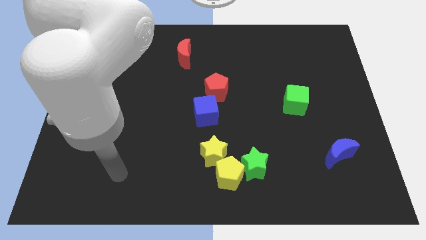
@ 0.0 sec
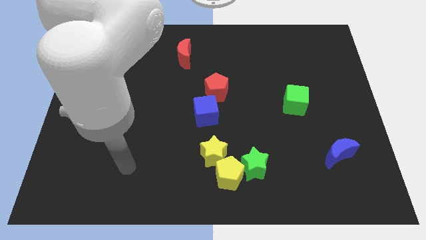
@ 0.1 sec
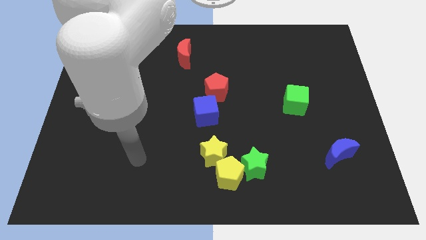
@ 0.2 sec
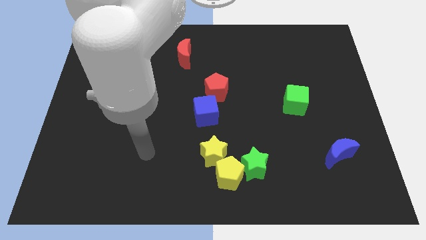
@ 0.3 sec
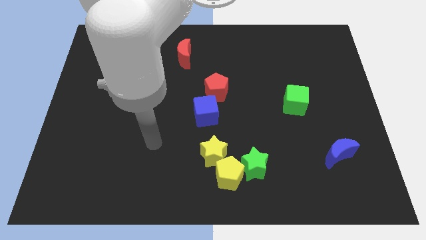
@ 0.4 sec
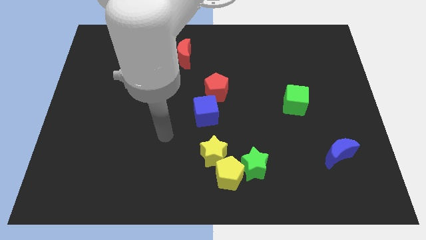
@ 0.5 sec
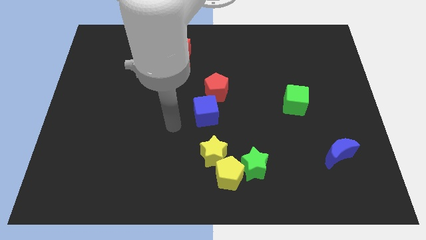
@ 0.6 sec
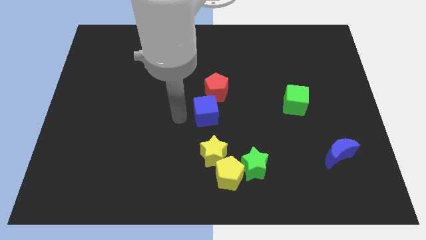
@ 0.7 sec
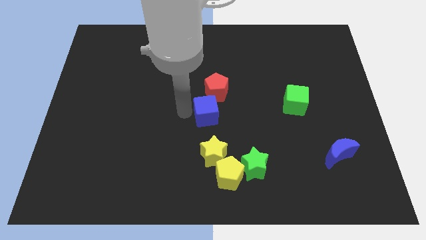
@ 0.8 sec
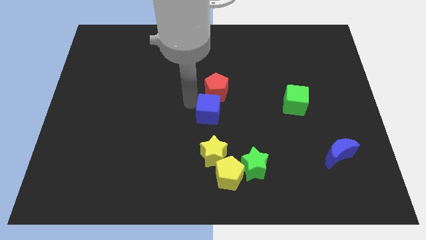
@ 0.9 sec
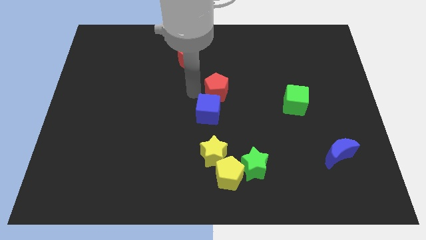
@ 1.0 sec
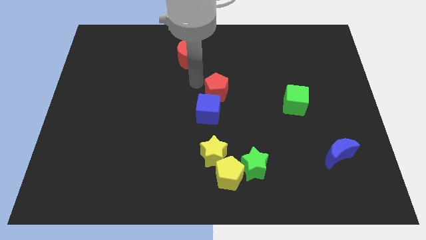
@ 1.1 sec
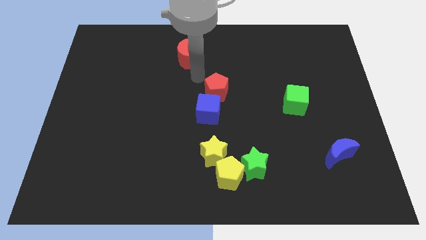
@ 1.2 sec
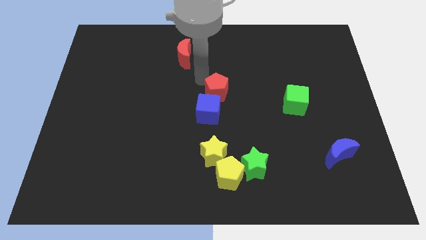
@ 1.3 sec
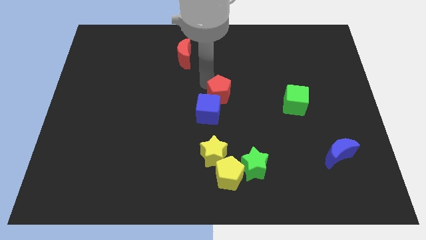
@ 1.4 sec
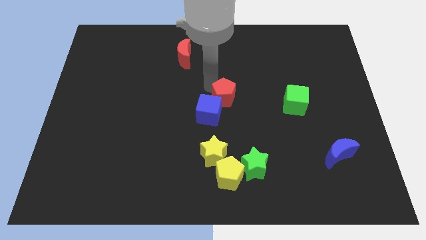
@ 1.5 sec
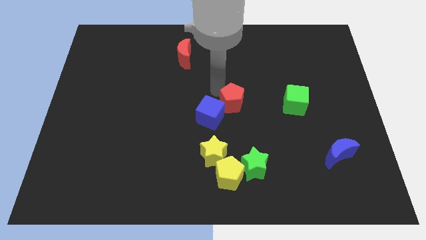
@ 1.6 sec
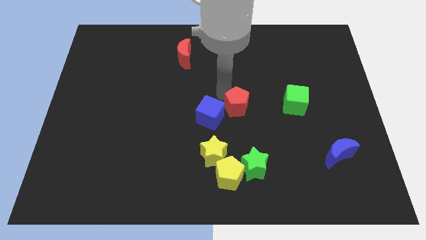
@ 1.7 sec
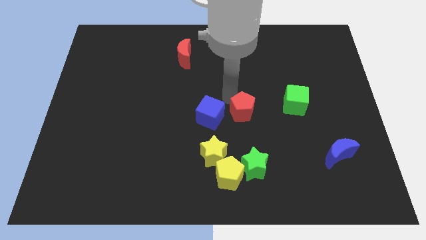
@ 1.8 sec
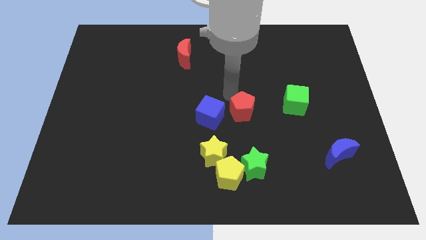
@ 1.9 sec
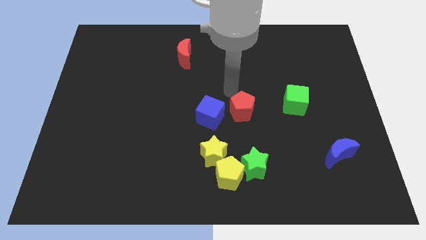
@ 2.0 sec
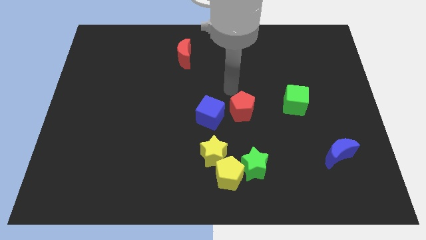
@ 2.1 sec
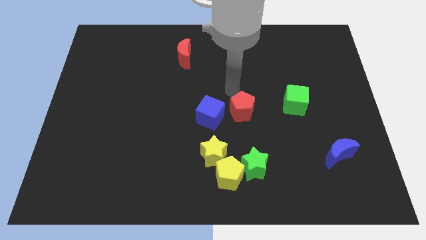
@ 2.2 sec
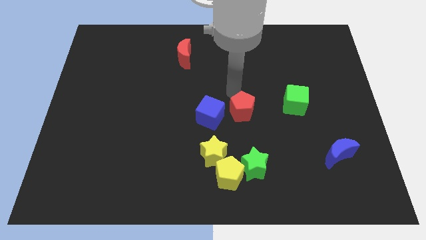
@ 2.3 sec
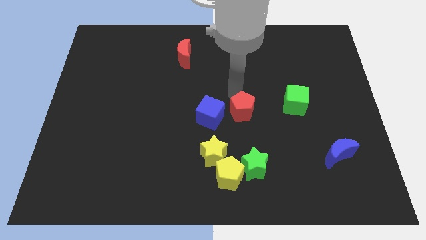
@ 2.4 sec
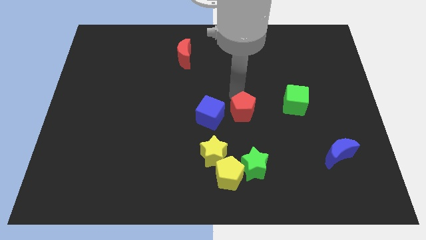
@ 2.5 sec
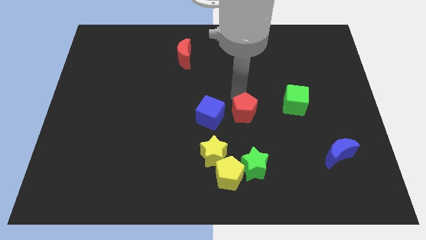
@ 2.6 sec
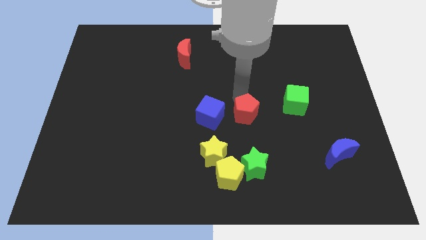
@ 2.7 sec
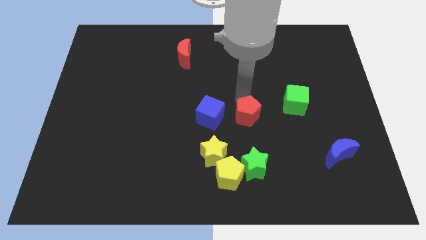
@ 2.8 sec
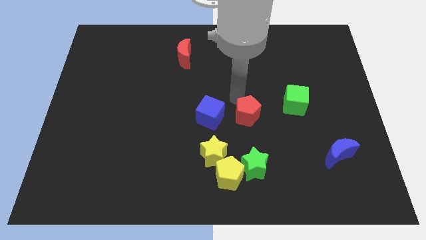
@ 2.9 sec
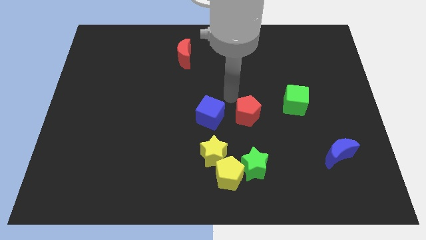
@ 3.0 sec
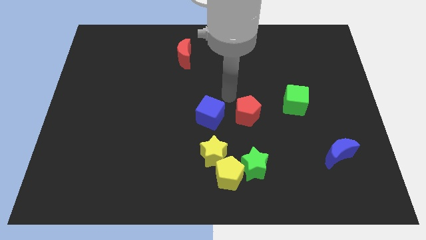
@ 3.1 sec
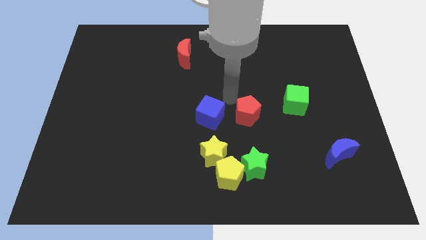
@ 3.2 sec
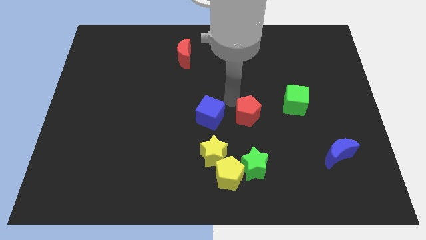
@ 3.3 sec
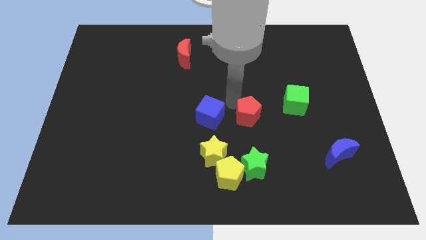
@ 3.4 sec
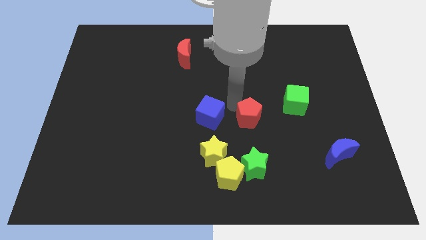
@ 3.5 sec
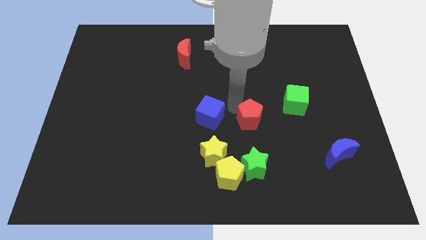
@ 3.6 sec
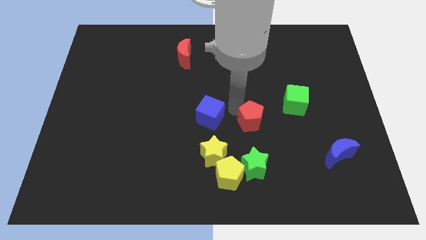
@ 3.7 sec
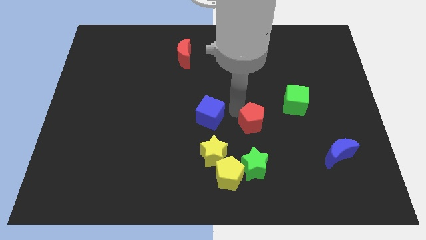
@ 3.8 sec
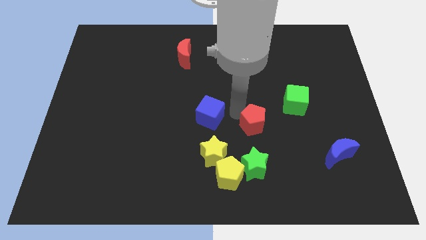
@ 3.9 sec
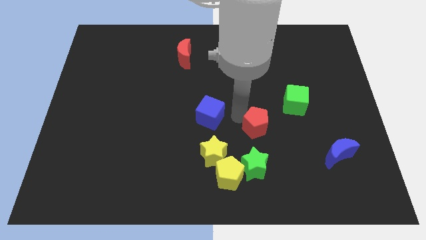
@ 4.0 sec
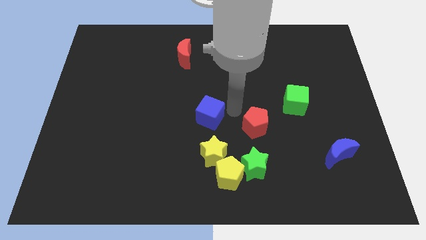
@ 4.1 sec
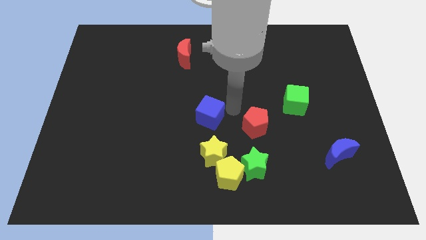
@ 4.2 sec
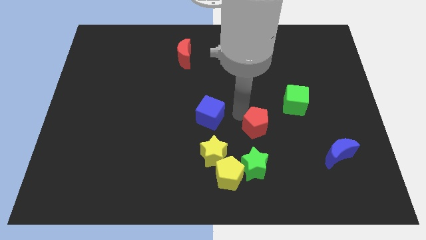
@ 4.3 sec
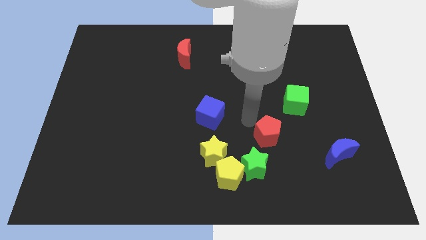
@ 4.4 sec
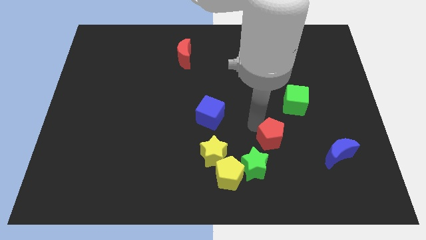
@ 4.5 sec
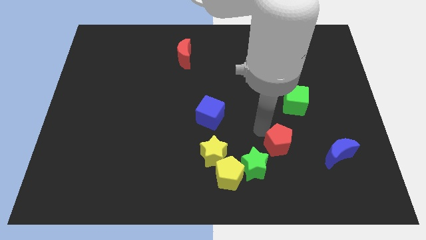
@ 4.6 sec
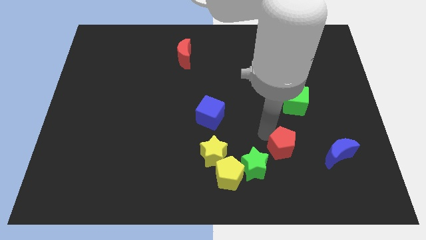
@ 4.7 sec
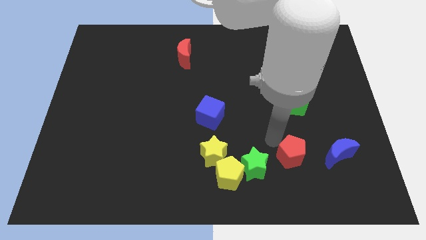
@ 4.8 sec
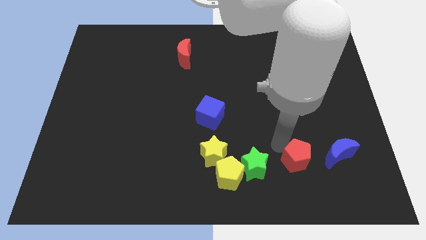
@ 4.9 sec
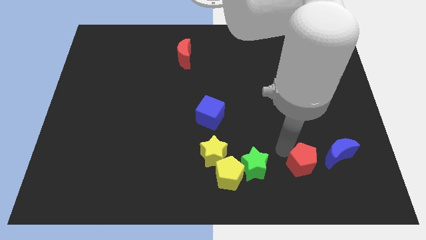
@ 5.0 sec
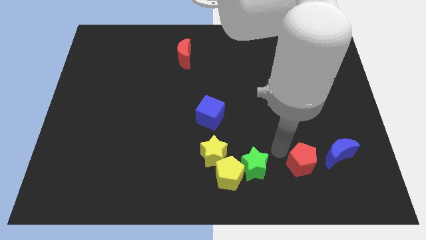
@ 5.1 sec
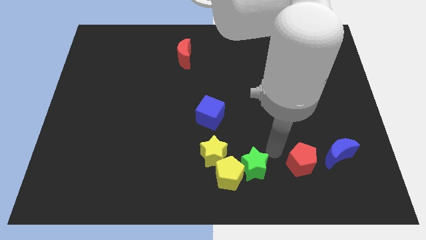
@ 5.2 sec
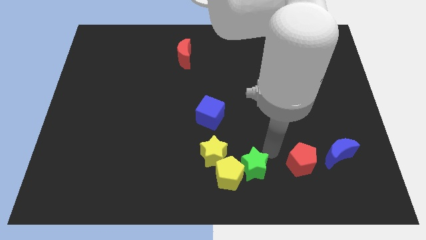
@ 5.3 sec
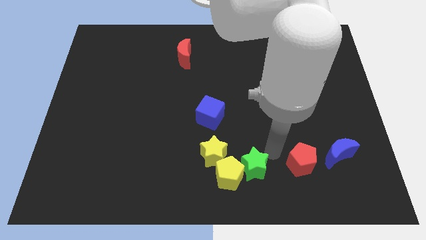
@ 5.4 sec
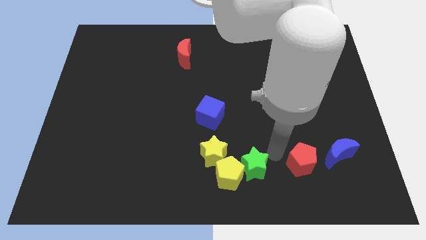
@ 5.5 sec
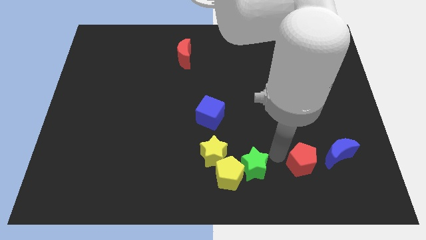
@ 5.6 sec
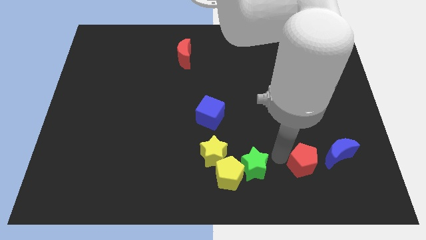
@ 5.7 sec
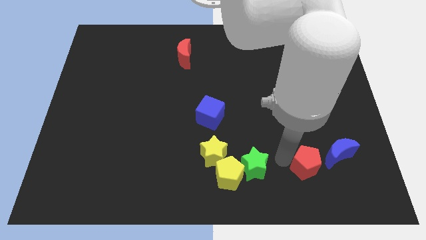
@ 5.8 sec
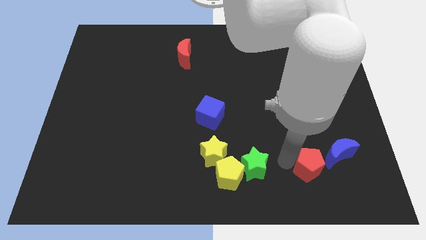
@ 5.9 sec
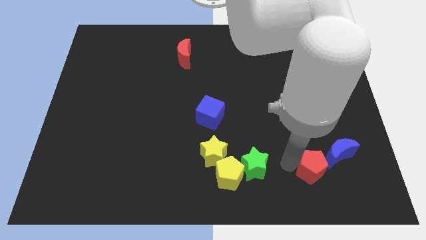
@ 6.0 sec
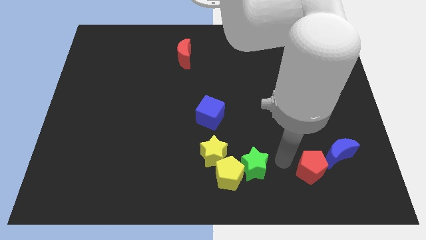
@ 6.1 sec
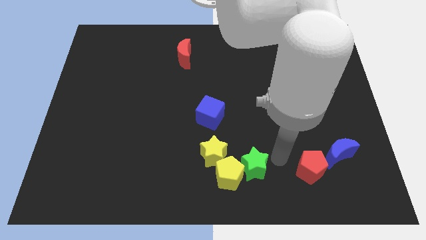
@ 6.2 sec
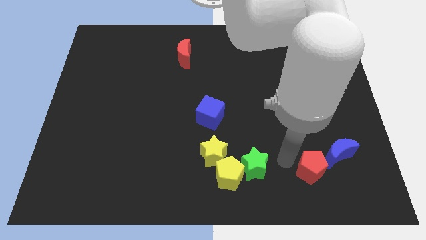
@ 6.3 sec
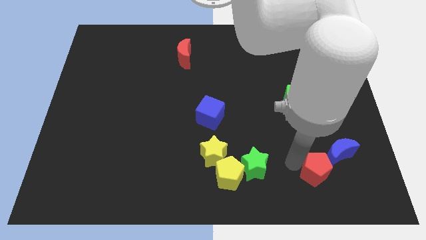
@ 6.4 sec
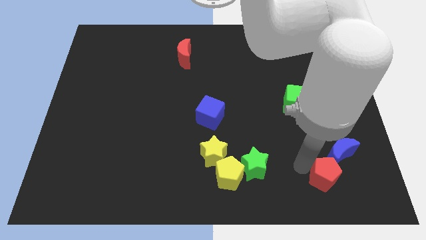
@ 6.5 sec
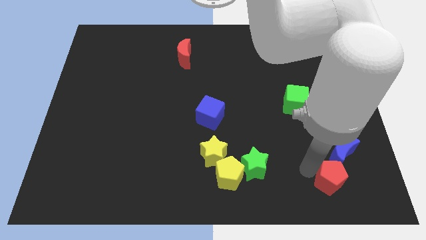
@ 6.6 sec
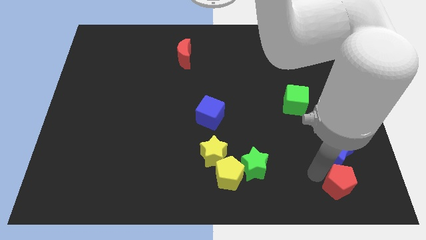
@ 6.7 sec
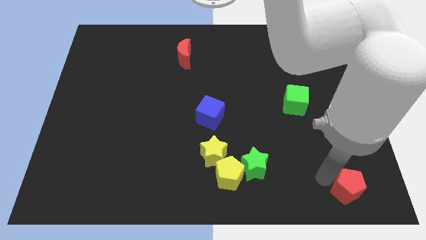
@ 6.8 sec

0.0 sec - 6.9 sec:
push the red pentagon to the bottom right corner
